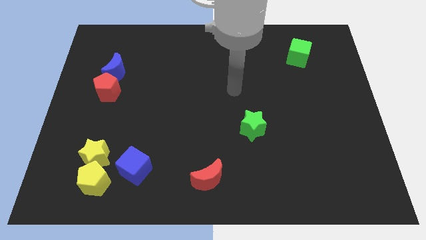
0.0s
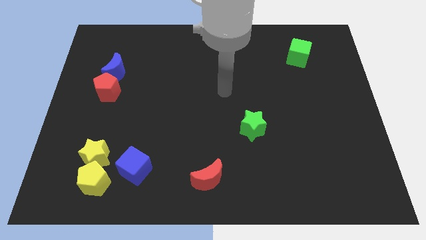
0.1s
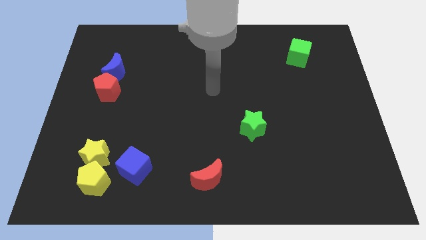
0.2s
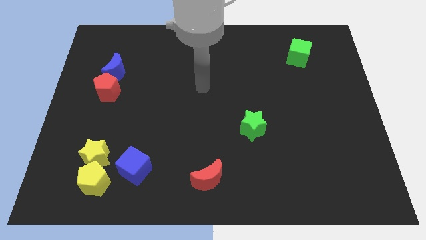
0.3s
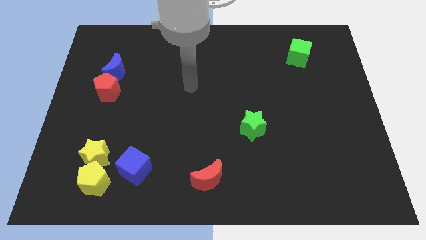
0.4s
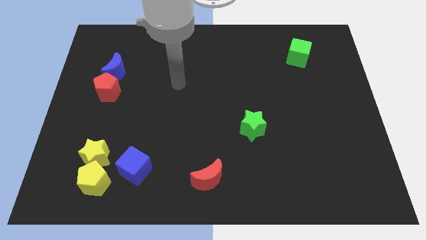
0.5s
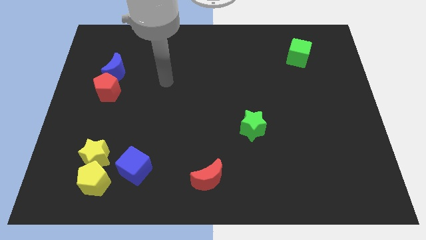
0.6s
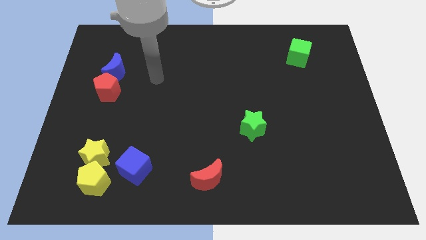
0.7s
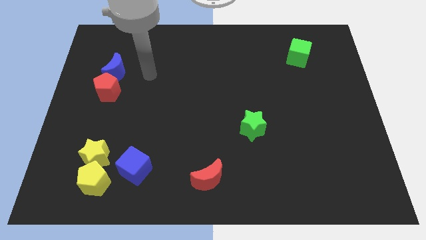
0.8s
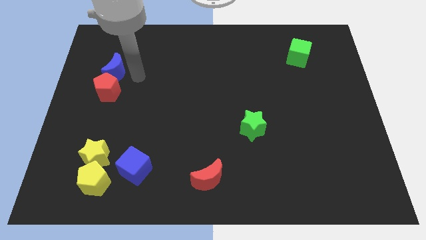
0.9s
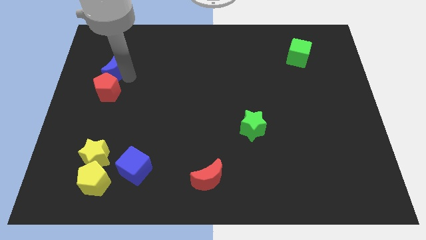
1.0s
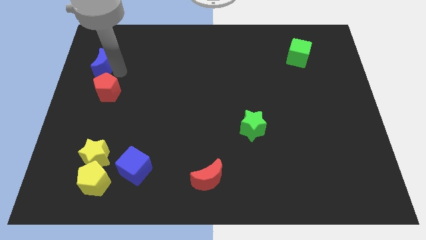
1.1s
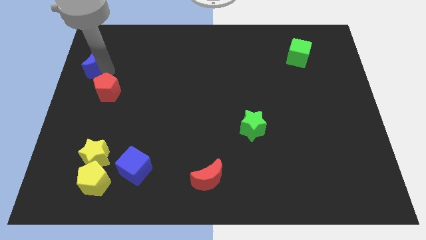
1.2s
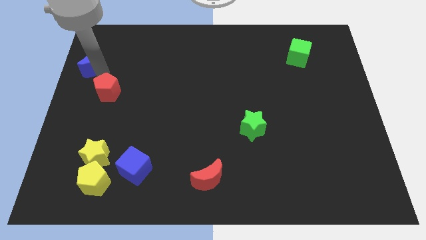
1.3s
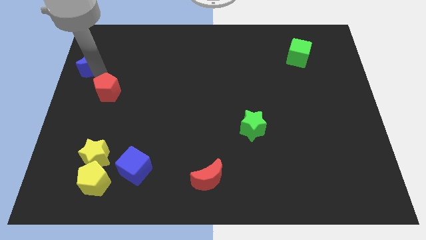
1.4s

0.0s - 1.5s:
move the red pentagon away from the blue moon

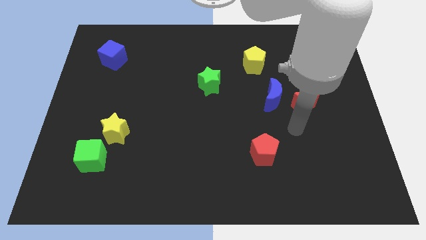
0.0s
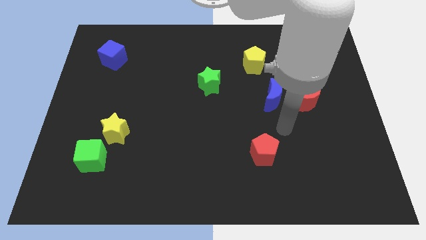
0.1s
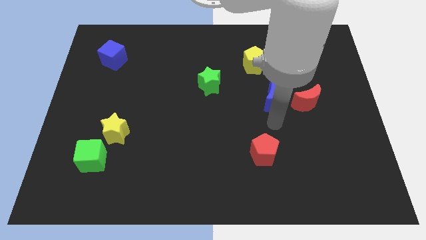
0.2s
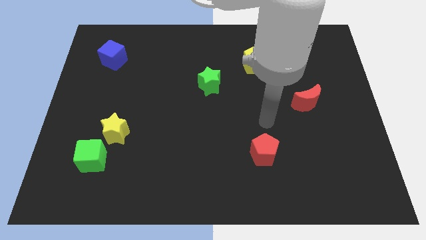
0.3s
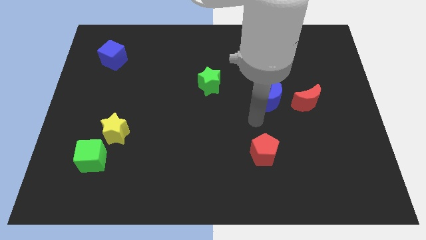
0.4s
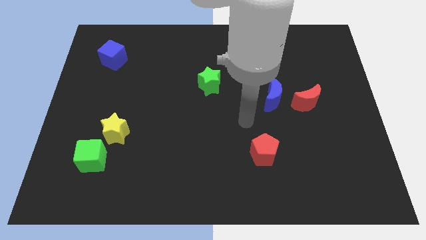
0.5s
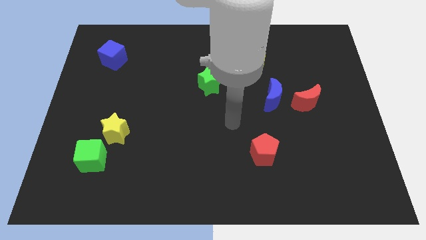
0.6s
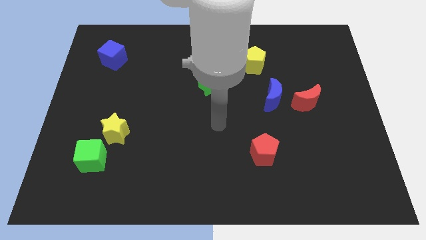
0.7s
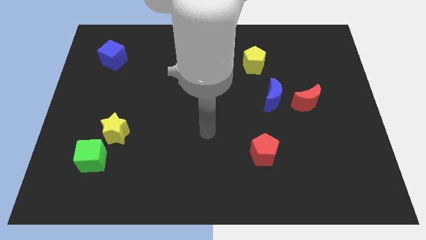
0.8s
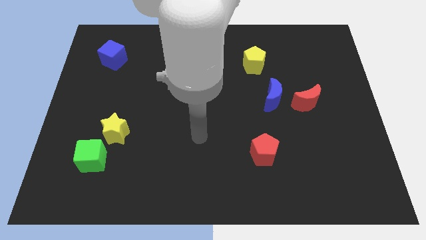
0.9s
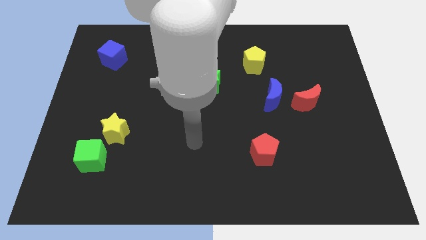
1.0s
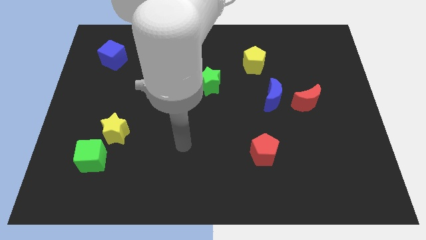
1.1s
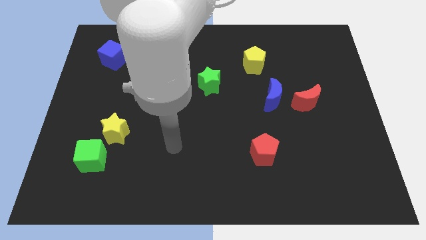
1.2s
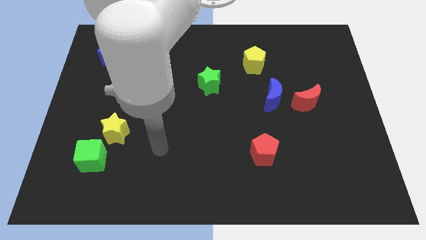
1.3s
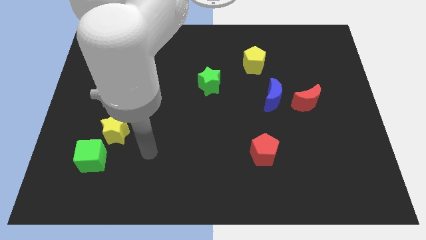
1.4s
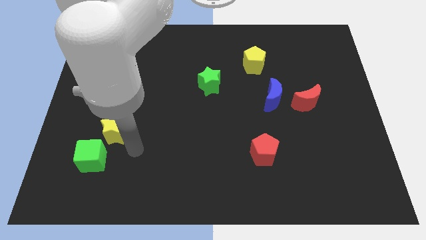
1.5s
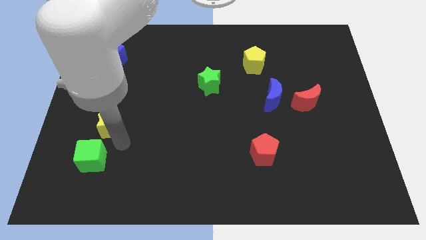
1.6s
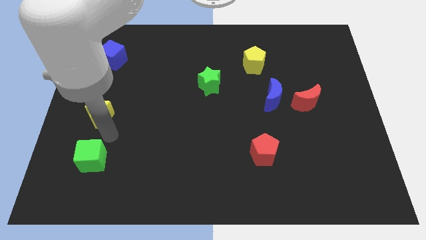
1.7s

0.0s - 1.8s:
pull the green cube apart from the yellow star

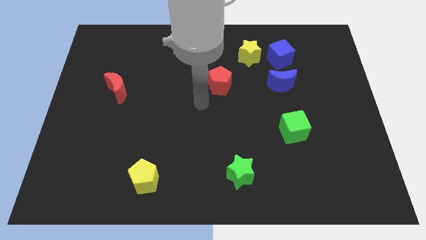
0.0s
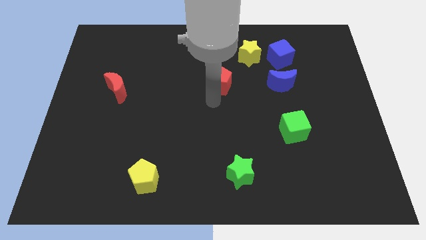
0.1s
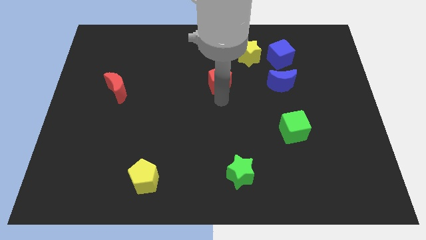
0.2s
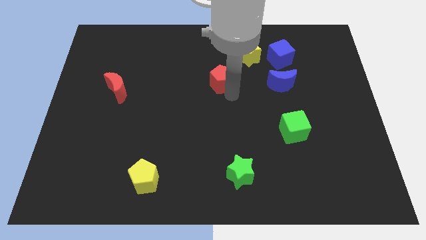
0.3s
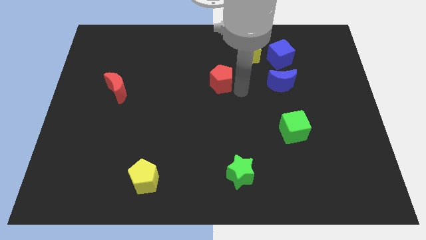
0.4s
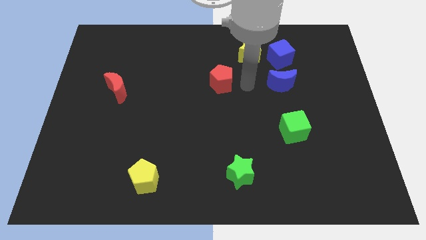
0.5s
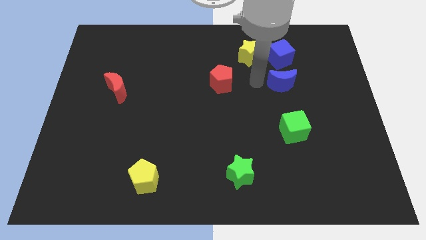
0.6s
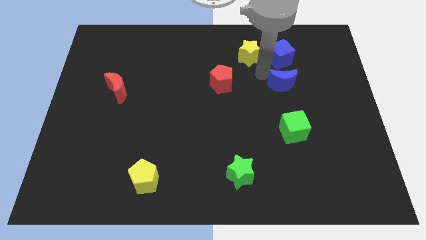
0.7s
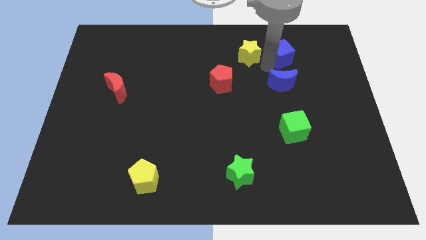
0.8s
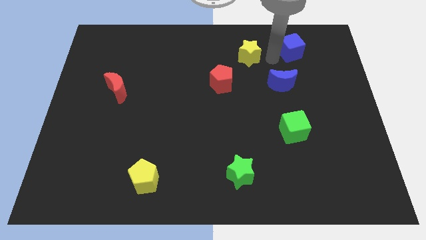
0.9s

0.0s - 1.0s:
move the yellow star away from the blue cube

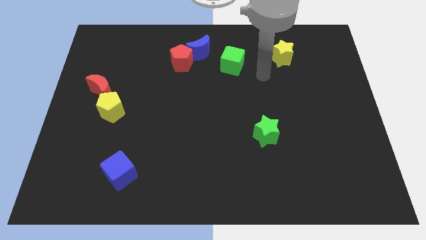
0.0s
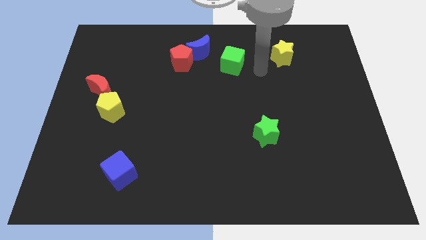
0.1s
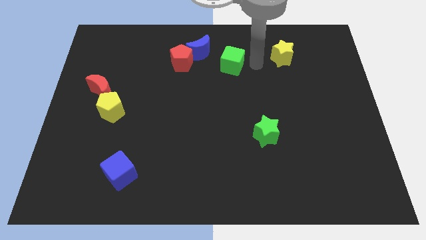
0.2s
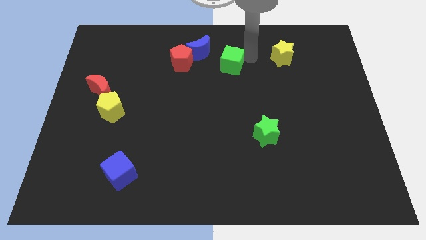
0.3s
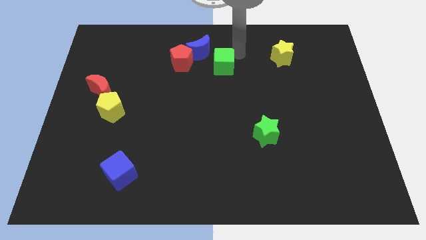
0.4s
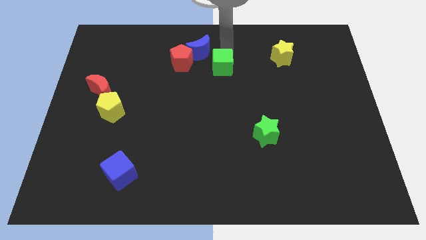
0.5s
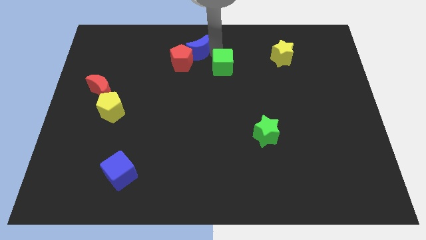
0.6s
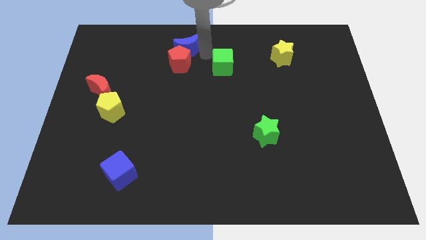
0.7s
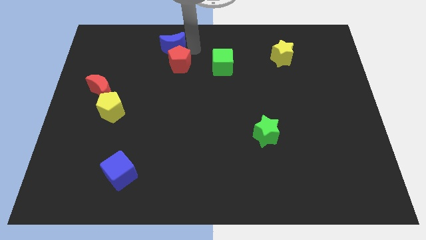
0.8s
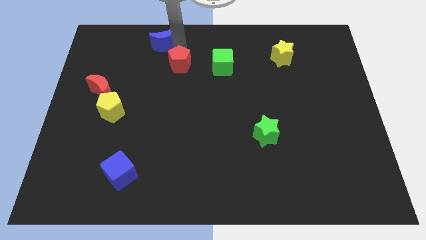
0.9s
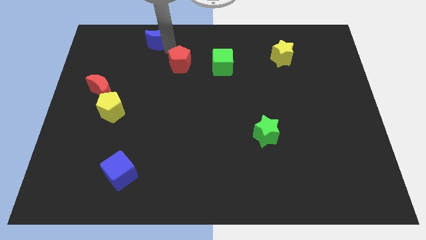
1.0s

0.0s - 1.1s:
separate the red pentagon from the blue moon

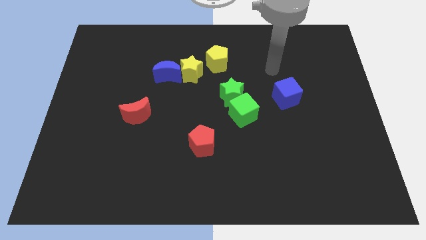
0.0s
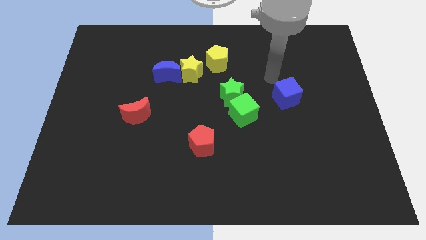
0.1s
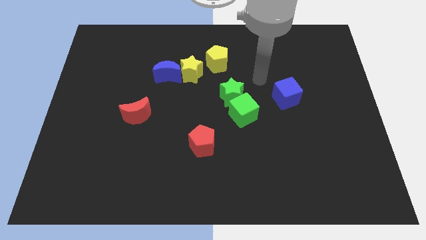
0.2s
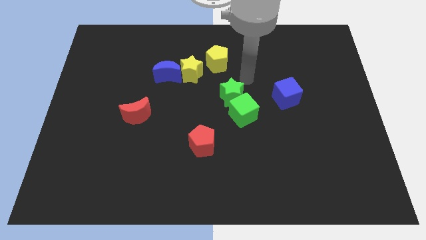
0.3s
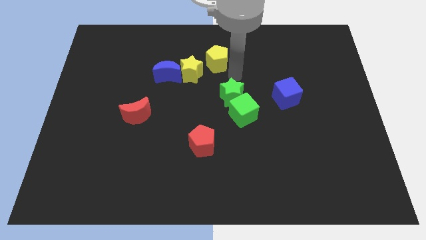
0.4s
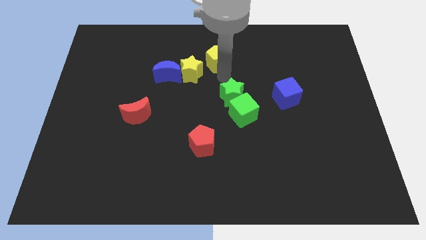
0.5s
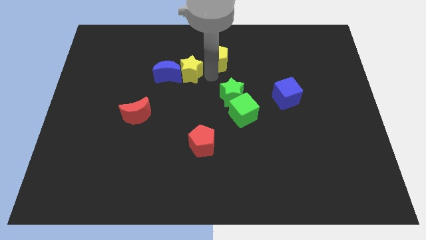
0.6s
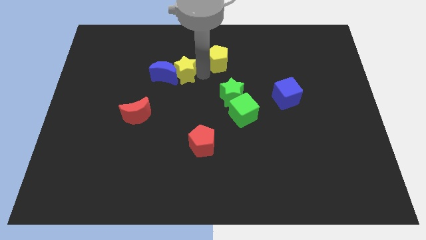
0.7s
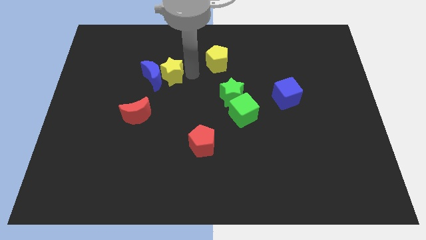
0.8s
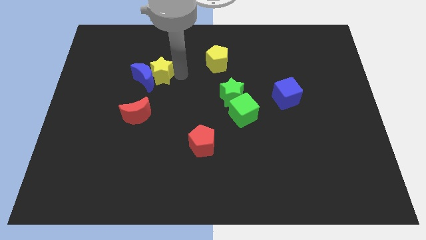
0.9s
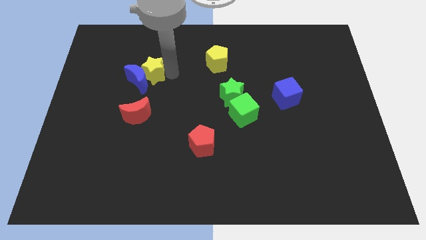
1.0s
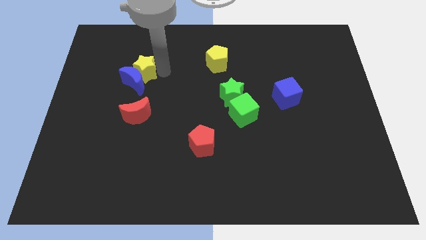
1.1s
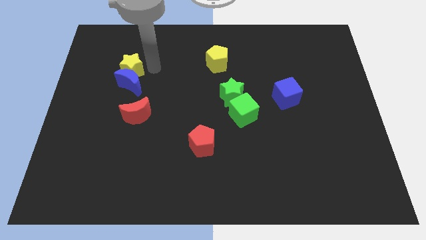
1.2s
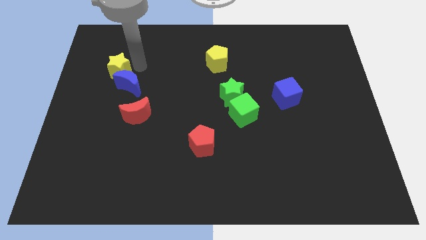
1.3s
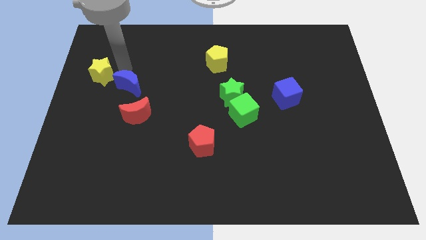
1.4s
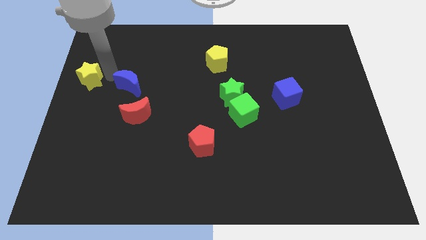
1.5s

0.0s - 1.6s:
separate the blue moon from the yellow star

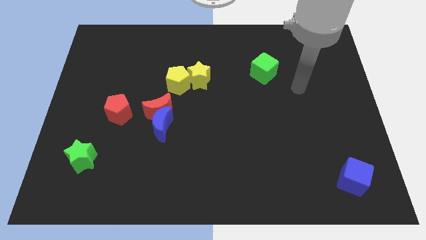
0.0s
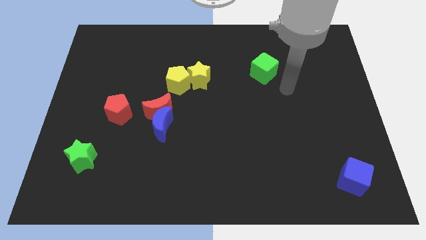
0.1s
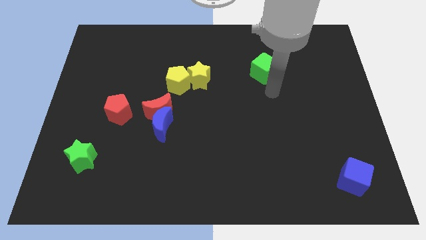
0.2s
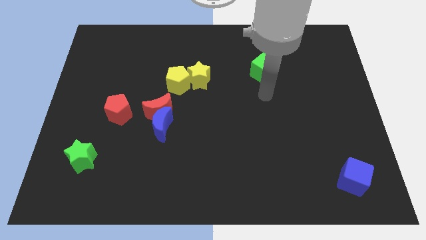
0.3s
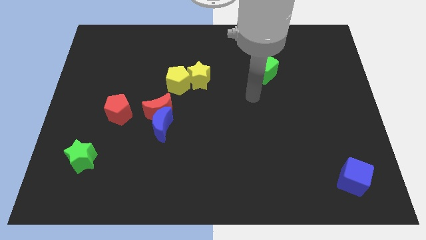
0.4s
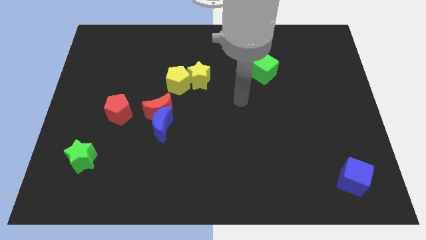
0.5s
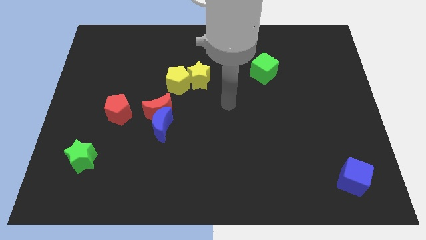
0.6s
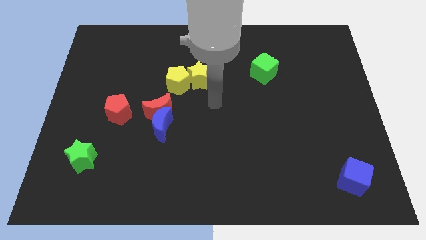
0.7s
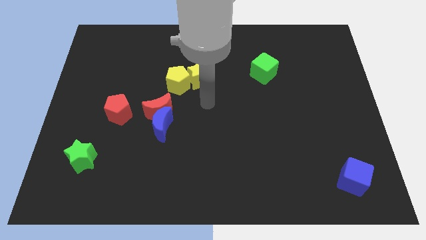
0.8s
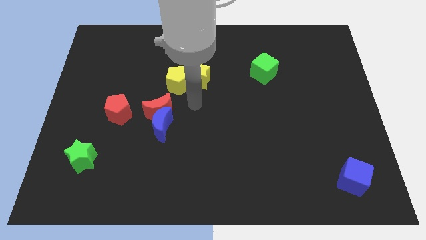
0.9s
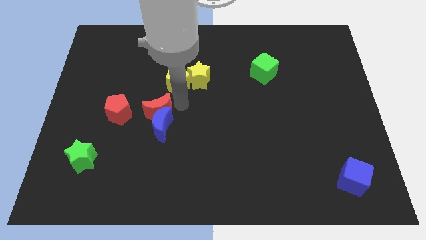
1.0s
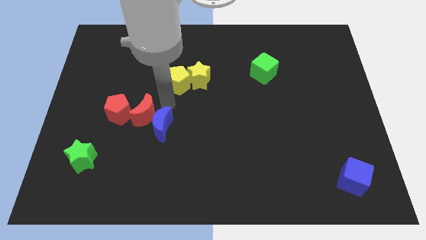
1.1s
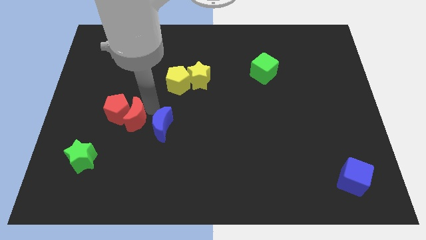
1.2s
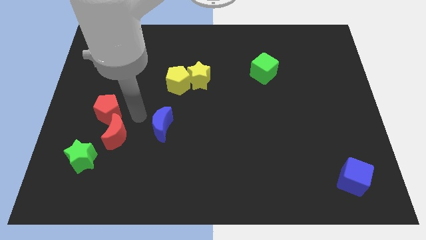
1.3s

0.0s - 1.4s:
separate the blue moon from the red moon

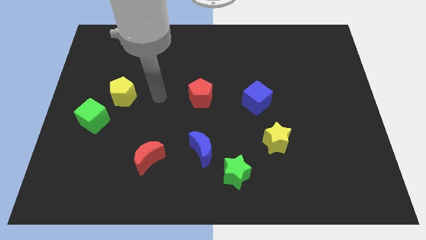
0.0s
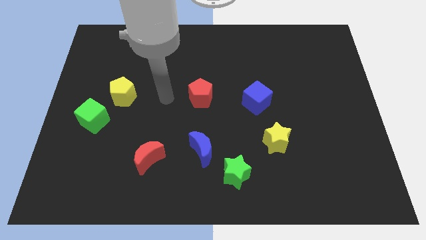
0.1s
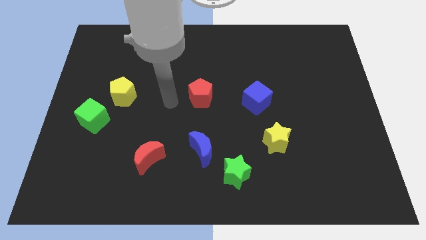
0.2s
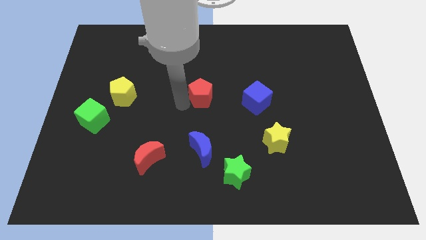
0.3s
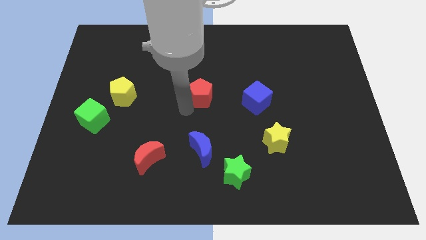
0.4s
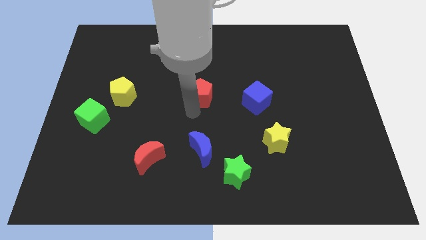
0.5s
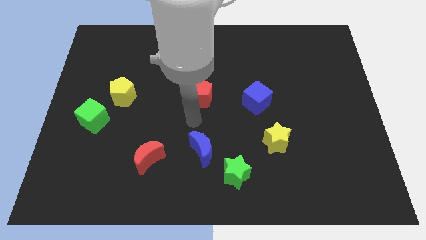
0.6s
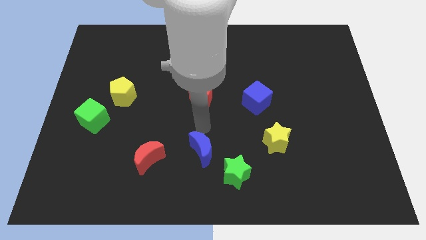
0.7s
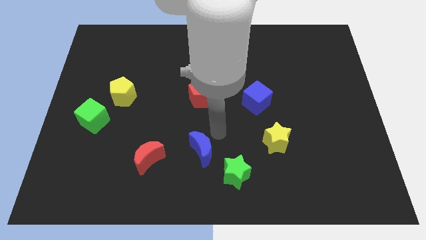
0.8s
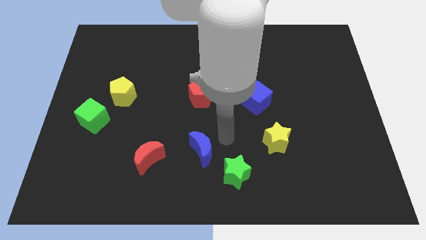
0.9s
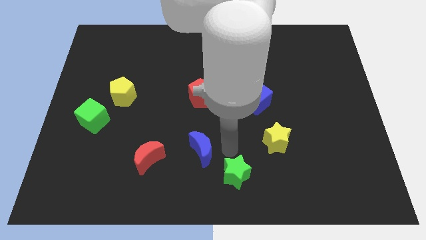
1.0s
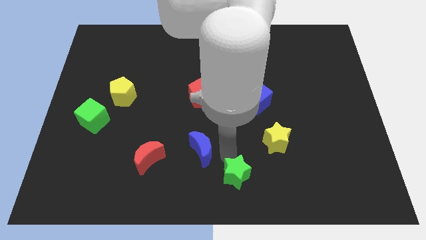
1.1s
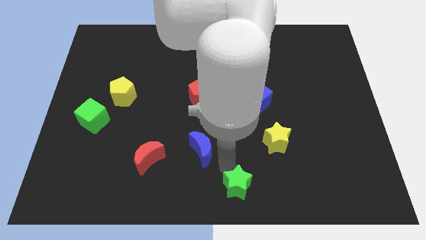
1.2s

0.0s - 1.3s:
move the blue moon away from the green star
